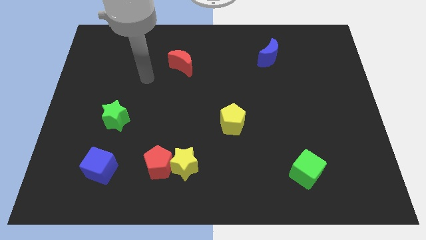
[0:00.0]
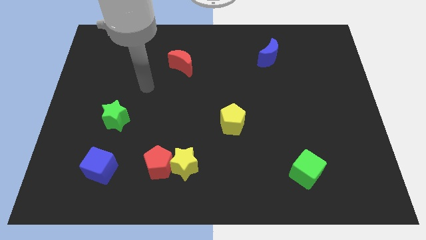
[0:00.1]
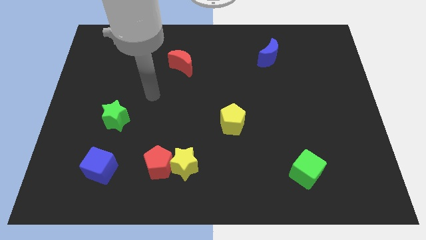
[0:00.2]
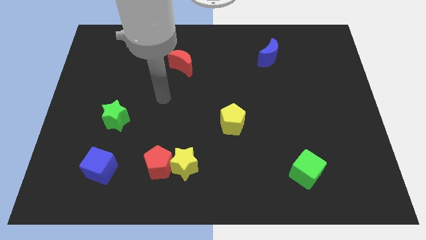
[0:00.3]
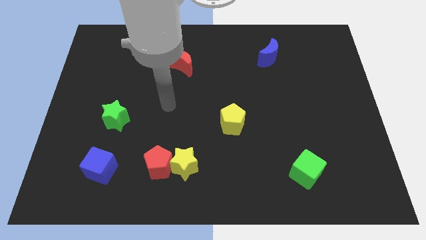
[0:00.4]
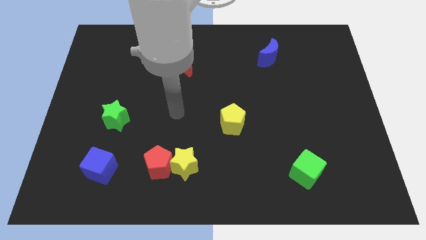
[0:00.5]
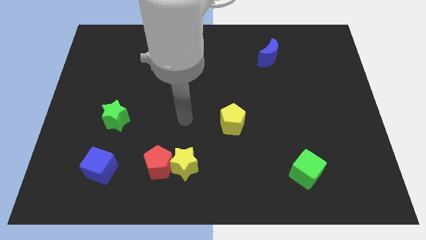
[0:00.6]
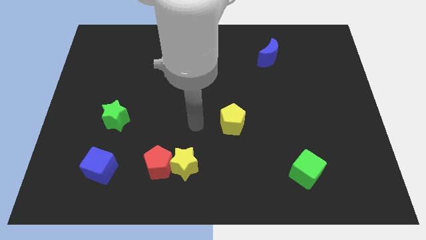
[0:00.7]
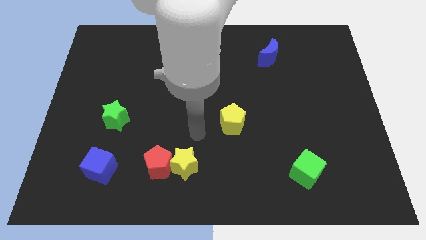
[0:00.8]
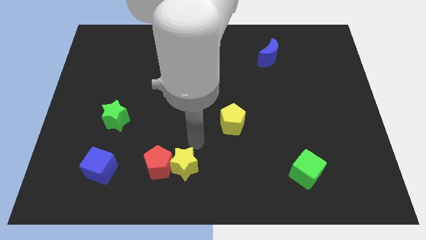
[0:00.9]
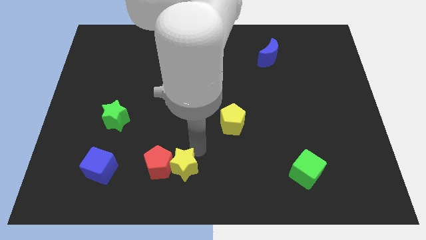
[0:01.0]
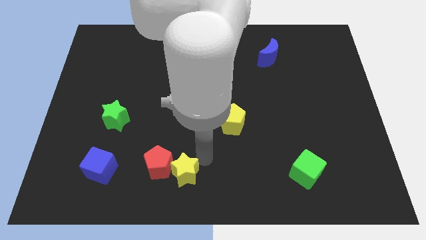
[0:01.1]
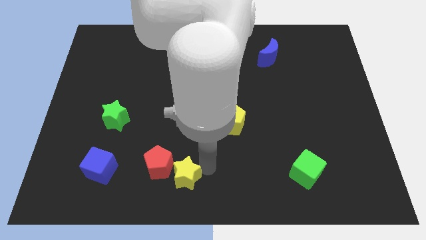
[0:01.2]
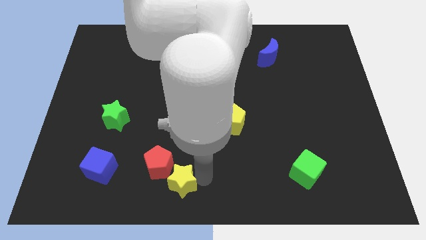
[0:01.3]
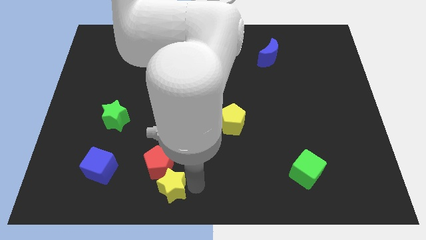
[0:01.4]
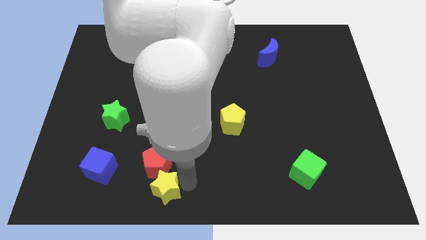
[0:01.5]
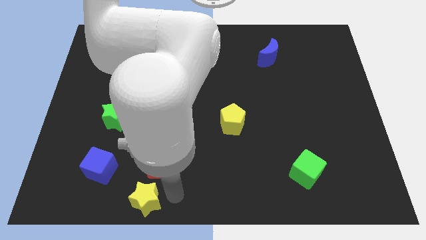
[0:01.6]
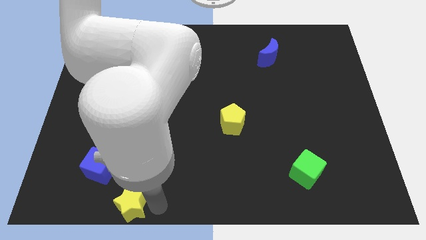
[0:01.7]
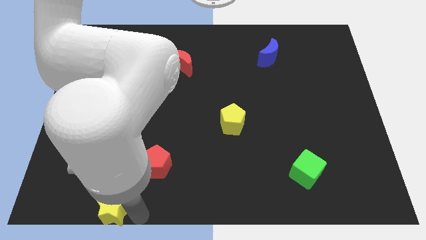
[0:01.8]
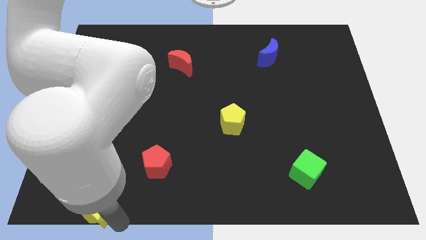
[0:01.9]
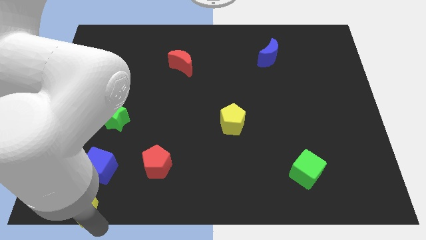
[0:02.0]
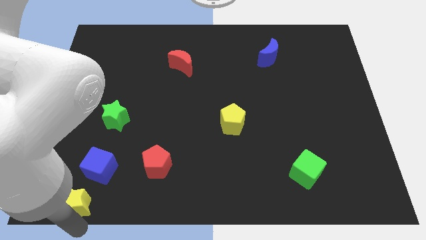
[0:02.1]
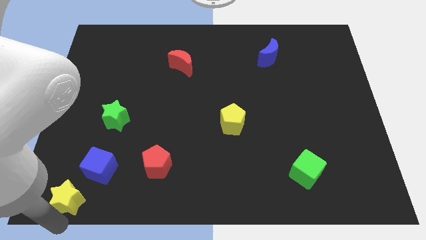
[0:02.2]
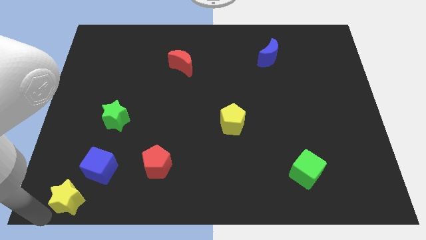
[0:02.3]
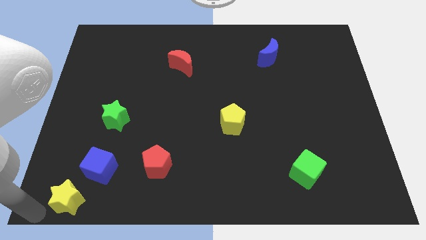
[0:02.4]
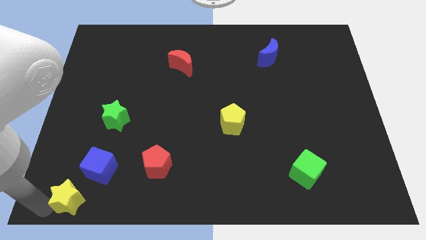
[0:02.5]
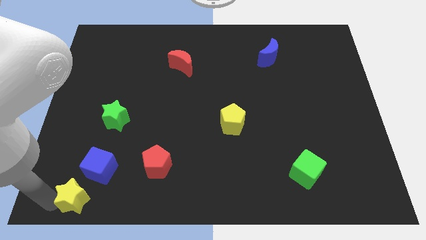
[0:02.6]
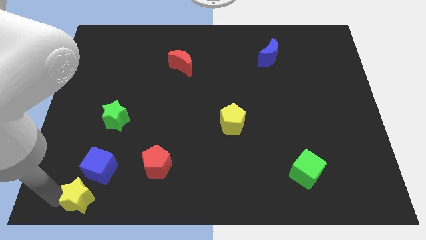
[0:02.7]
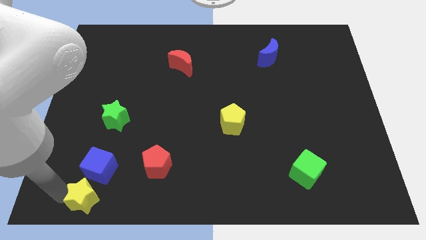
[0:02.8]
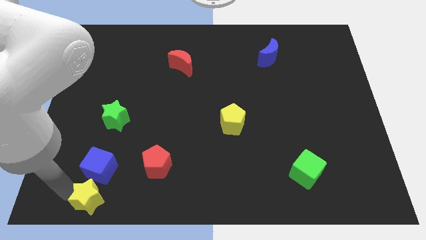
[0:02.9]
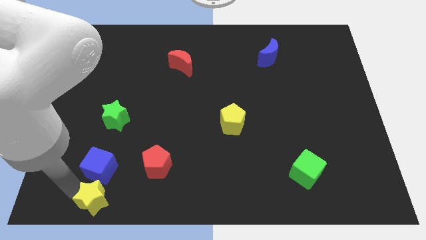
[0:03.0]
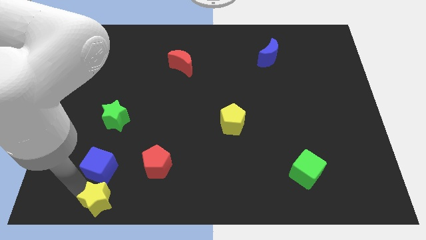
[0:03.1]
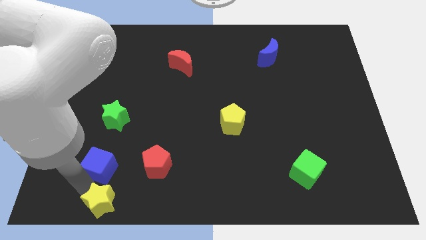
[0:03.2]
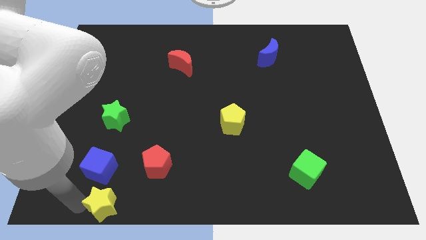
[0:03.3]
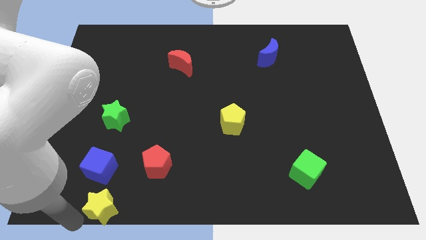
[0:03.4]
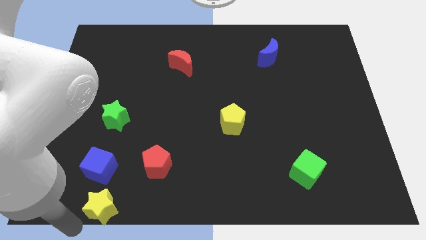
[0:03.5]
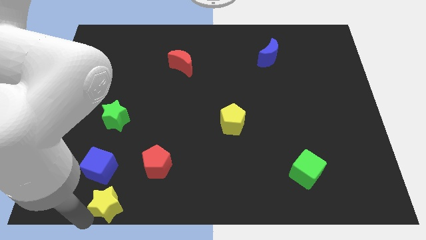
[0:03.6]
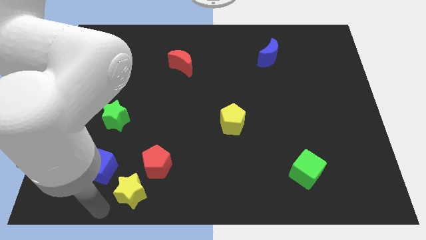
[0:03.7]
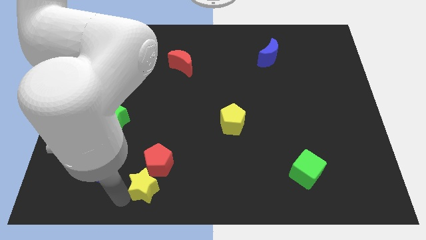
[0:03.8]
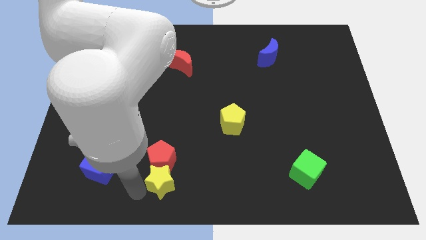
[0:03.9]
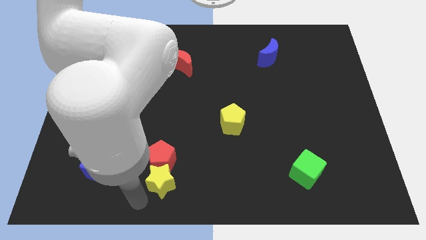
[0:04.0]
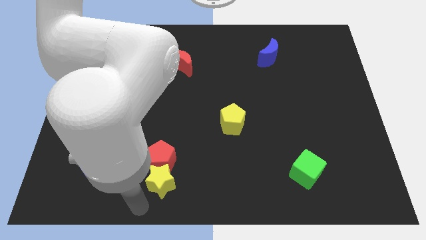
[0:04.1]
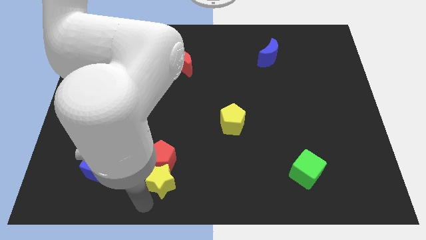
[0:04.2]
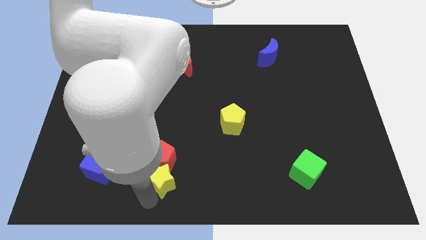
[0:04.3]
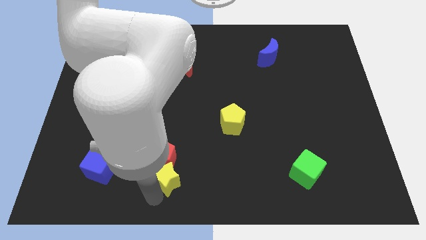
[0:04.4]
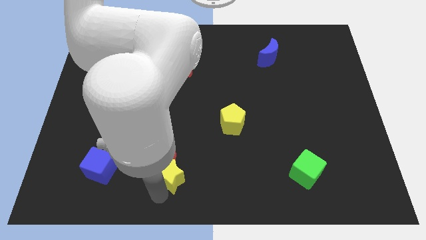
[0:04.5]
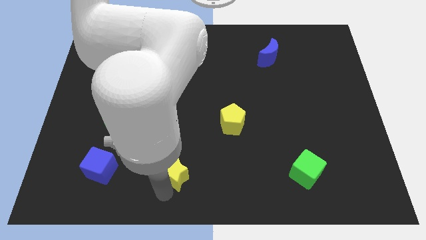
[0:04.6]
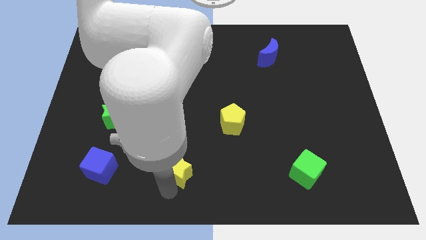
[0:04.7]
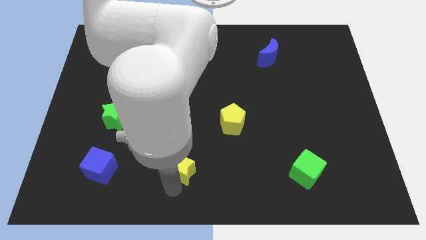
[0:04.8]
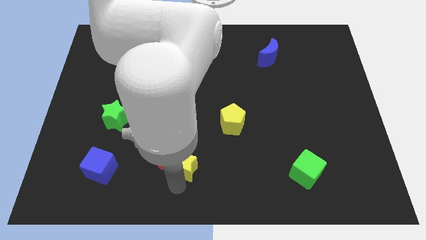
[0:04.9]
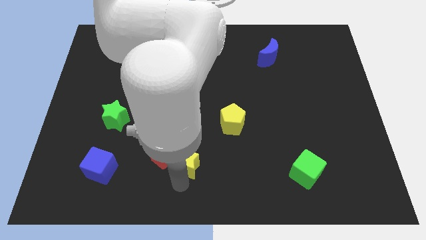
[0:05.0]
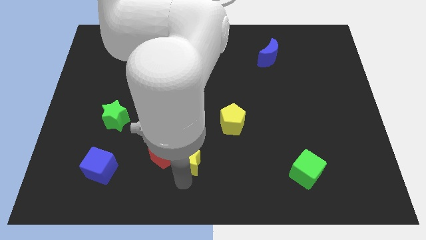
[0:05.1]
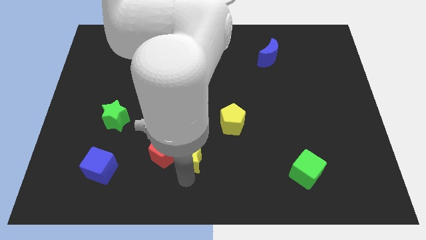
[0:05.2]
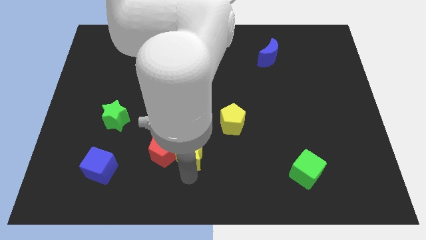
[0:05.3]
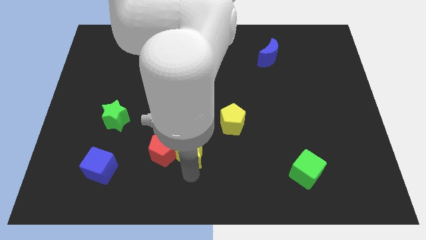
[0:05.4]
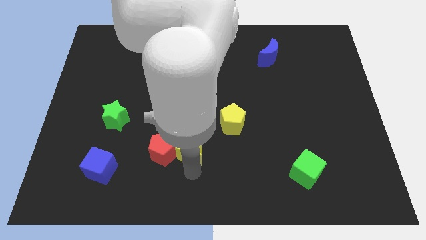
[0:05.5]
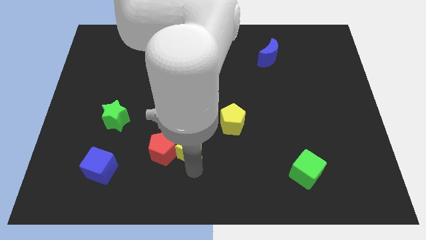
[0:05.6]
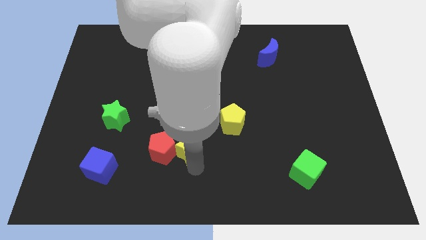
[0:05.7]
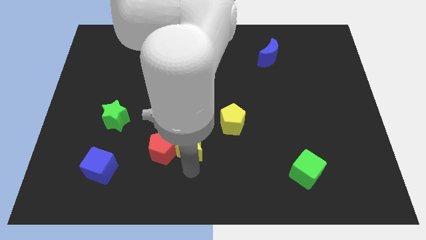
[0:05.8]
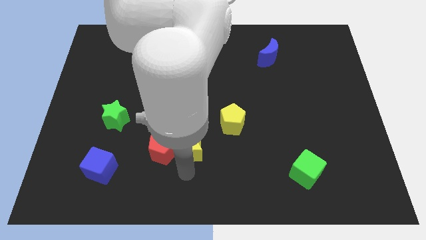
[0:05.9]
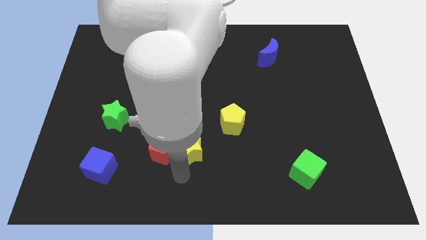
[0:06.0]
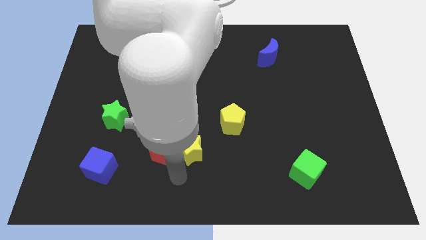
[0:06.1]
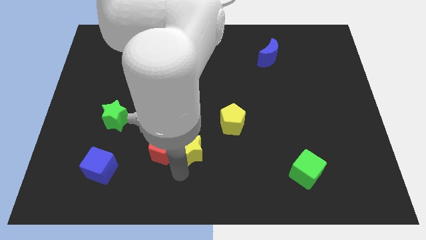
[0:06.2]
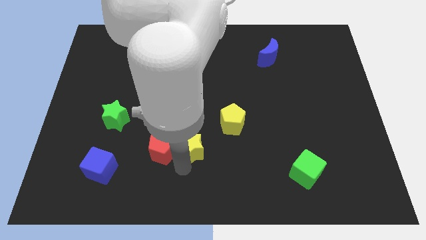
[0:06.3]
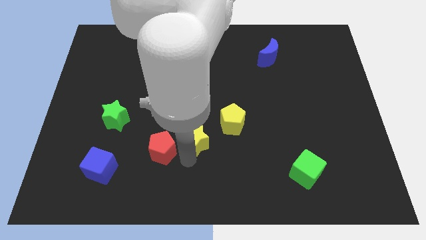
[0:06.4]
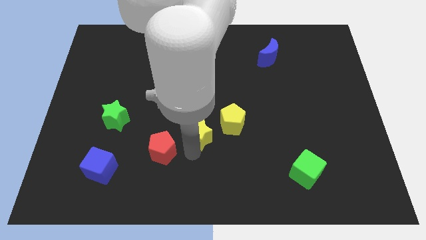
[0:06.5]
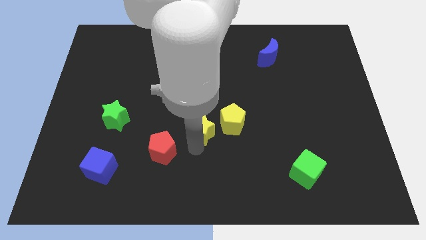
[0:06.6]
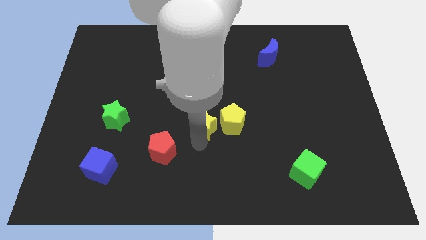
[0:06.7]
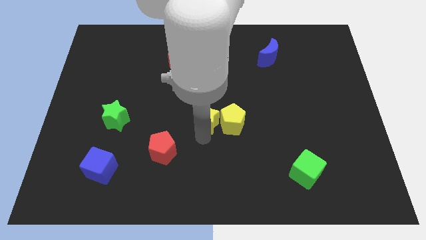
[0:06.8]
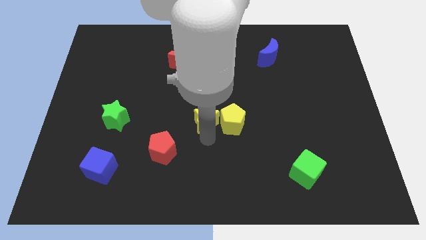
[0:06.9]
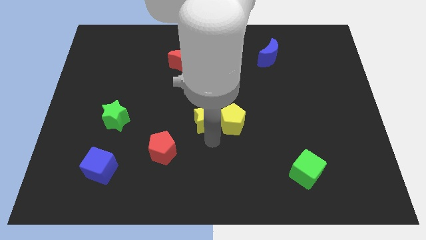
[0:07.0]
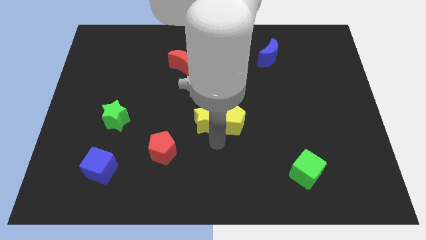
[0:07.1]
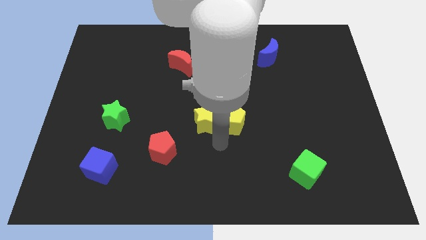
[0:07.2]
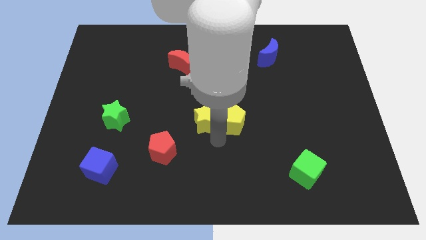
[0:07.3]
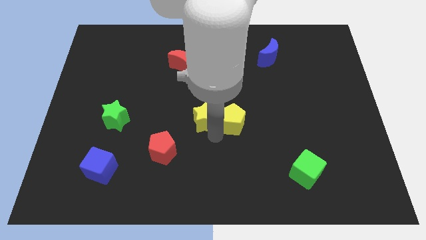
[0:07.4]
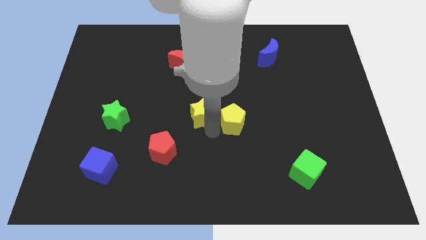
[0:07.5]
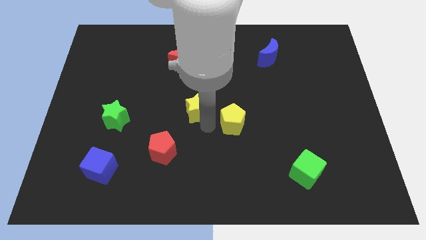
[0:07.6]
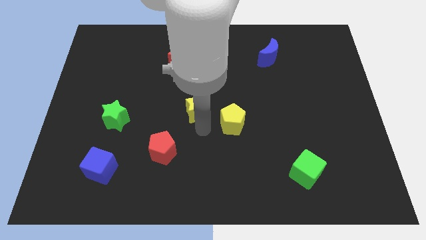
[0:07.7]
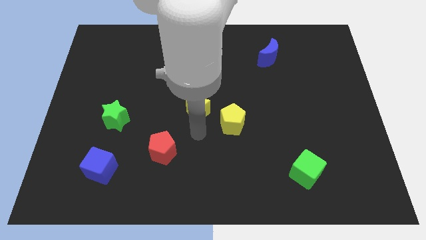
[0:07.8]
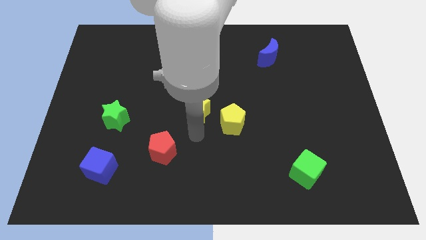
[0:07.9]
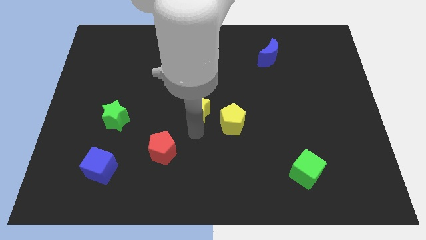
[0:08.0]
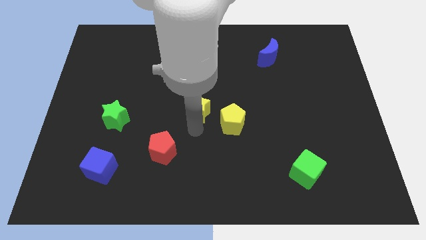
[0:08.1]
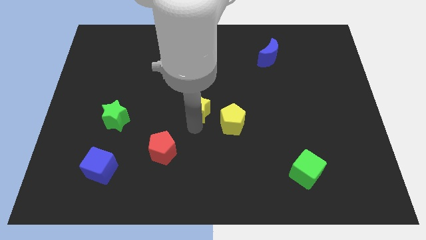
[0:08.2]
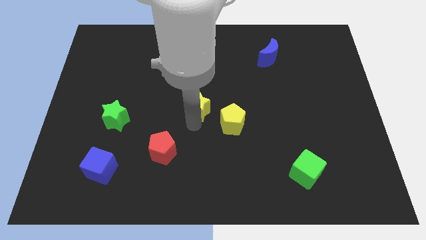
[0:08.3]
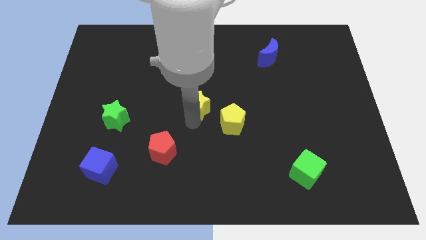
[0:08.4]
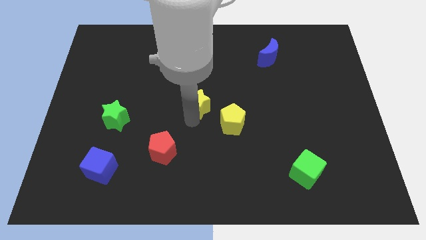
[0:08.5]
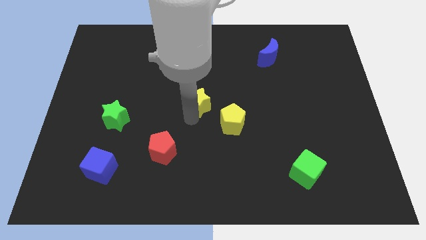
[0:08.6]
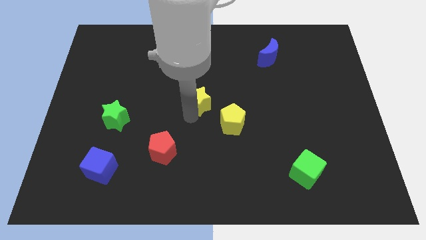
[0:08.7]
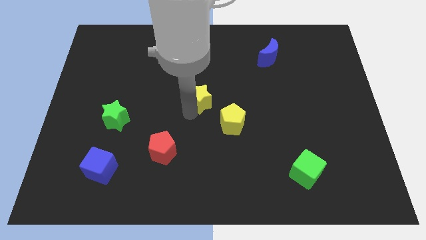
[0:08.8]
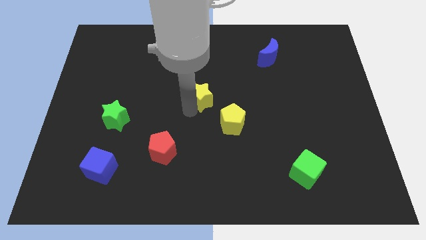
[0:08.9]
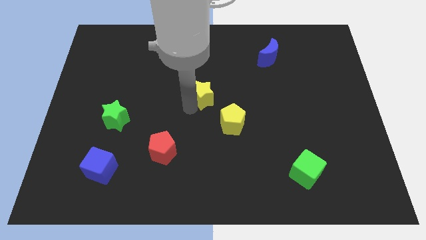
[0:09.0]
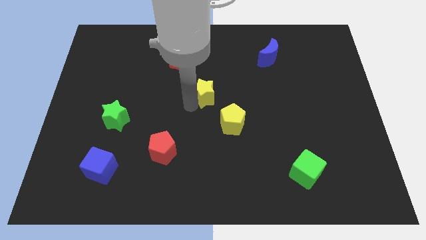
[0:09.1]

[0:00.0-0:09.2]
push the yellow star diagonally down and to the right of the red moon
